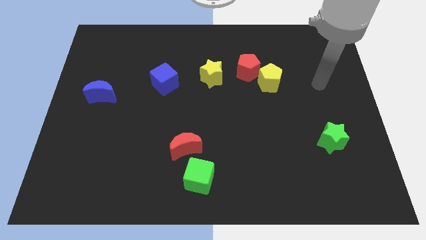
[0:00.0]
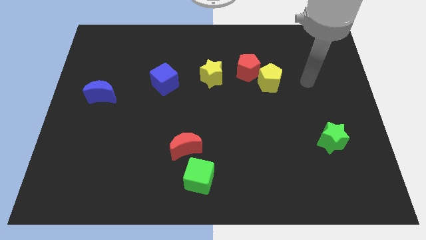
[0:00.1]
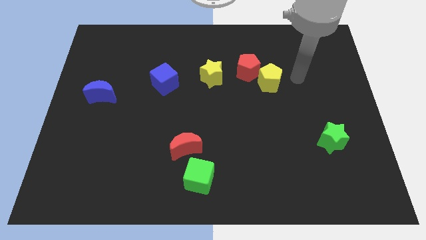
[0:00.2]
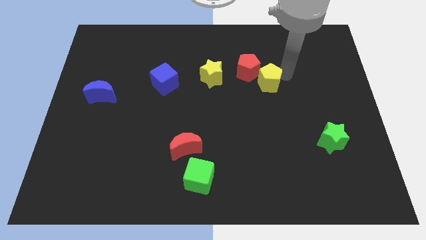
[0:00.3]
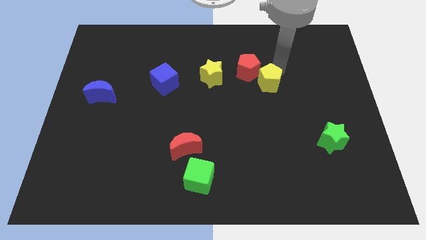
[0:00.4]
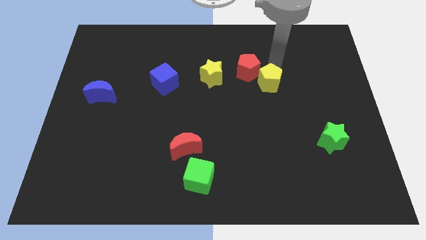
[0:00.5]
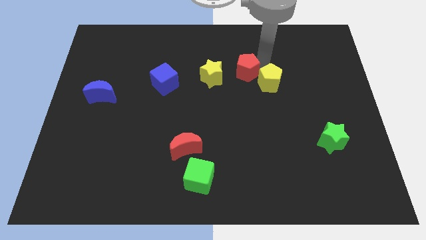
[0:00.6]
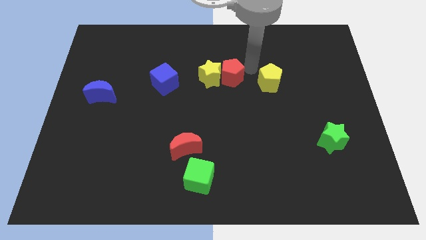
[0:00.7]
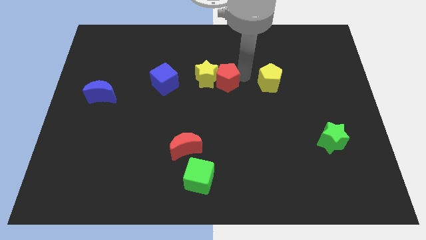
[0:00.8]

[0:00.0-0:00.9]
pull the yellow pentagon apart from the red pentagon

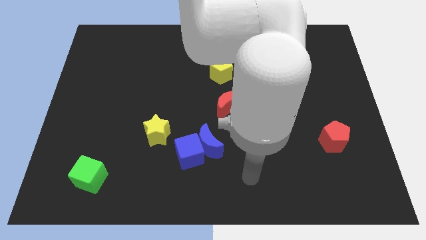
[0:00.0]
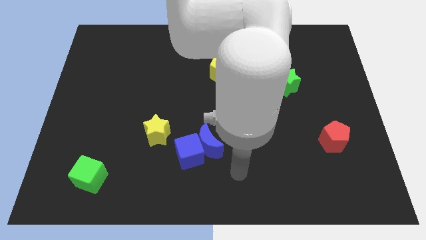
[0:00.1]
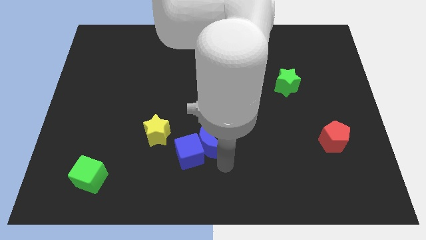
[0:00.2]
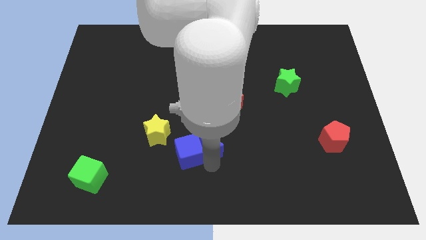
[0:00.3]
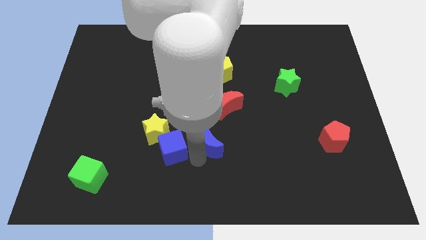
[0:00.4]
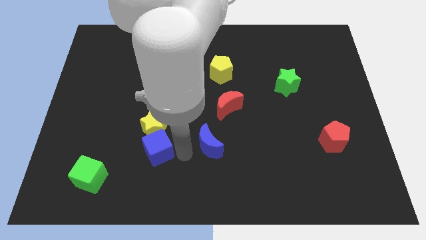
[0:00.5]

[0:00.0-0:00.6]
move the blue moon away from the blue cube

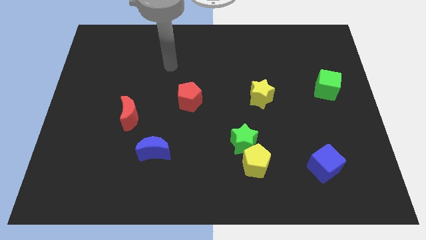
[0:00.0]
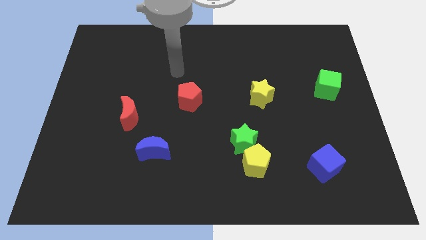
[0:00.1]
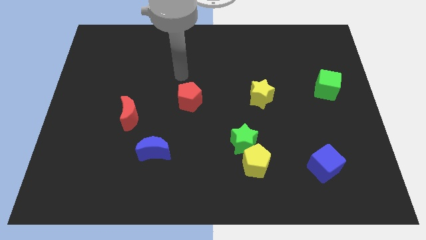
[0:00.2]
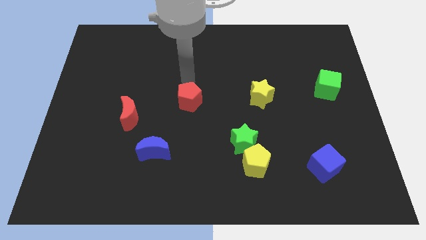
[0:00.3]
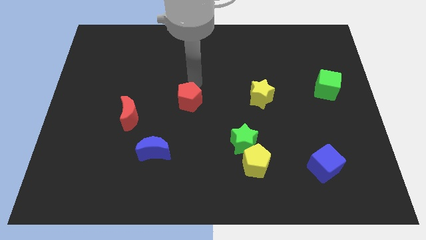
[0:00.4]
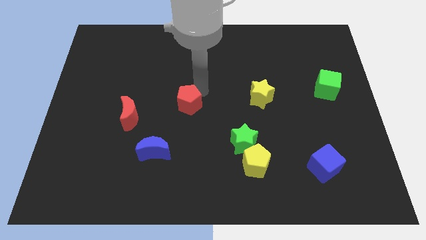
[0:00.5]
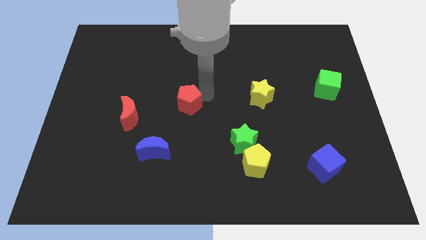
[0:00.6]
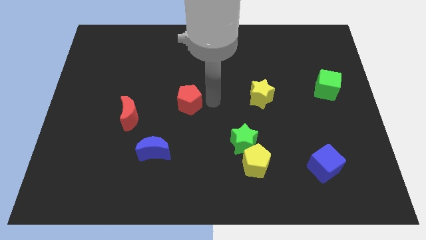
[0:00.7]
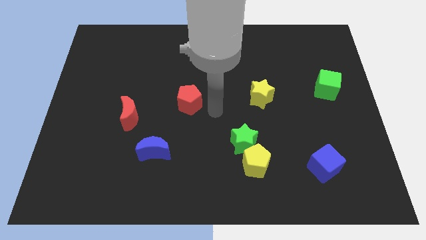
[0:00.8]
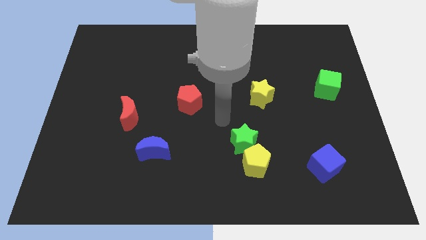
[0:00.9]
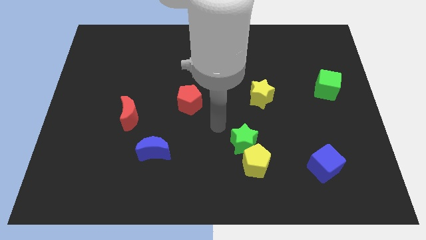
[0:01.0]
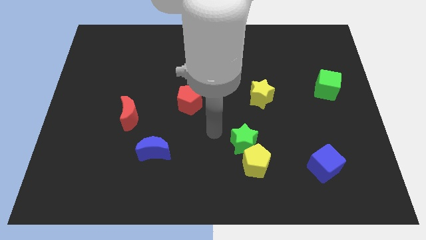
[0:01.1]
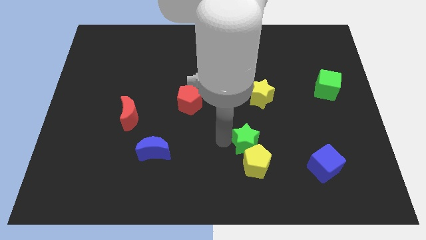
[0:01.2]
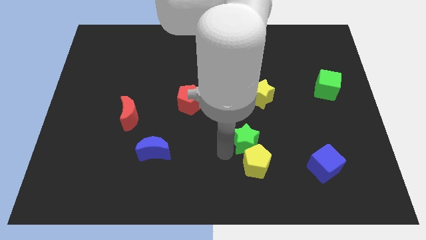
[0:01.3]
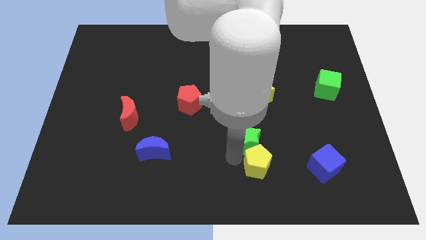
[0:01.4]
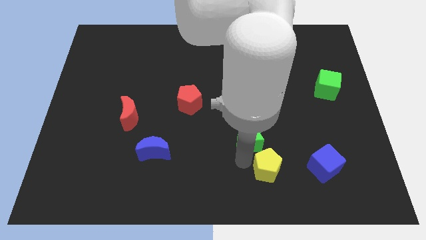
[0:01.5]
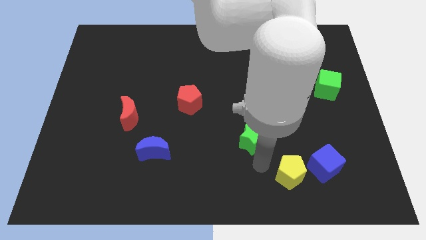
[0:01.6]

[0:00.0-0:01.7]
separate the green star from the yellow pentagon

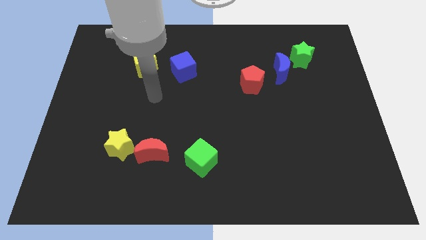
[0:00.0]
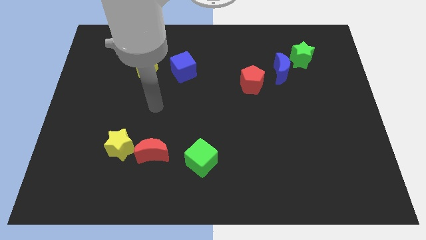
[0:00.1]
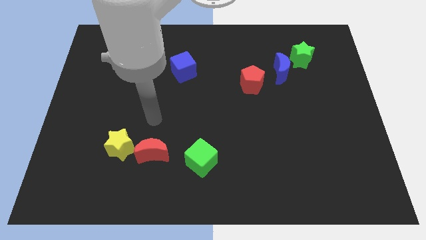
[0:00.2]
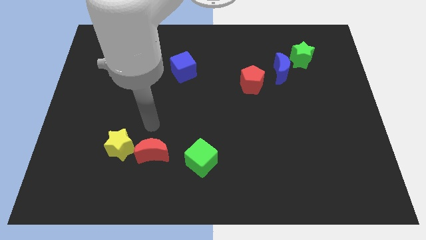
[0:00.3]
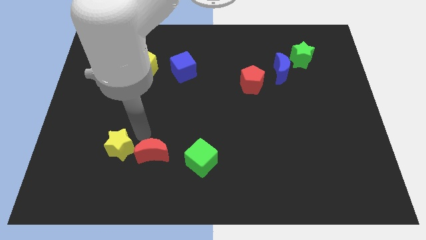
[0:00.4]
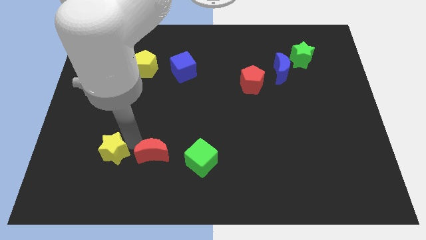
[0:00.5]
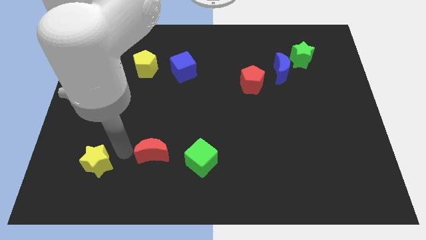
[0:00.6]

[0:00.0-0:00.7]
move the red moon away from the yellow star

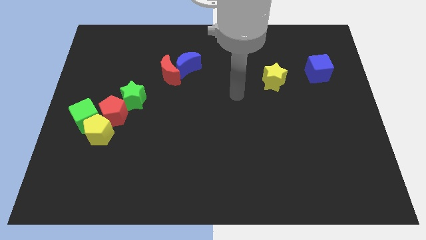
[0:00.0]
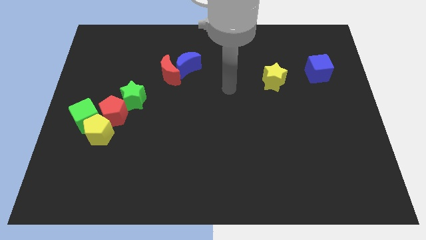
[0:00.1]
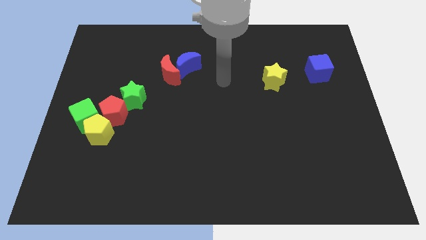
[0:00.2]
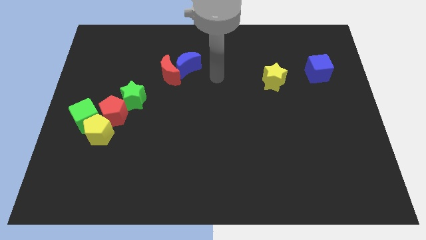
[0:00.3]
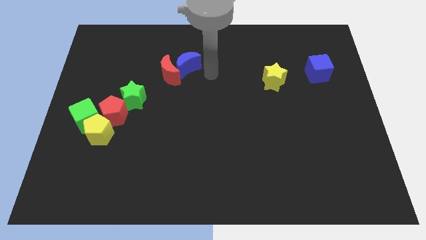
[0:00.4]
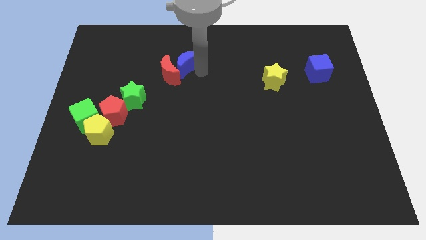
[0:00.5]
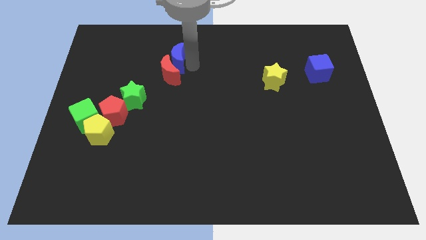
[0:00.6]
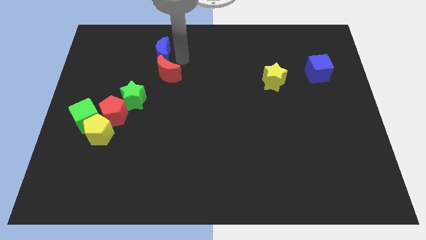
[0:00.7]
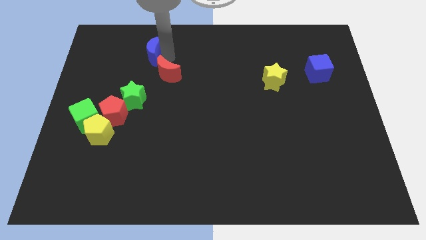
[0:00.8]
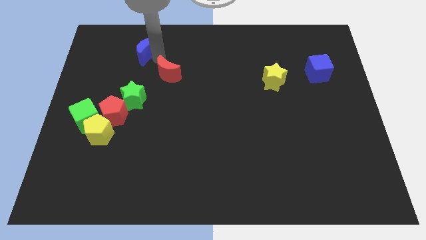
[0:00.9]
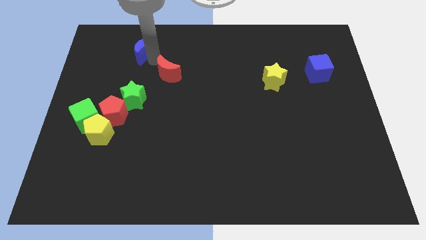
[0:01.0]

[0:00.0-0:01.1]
move the red moon away from the blue moon

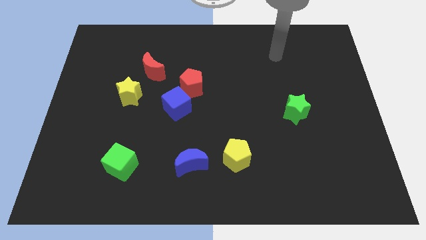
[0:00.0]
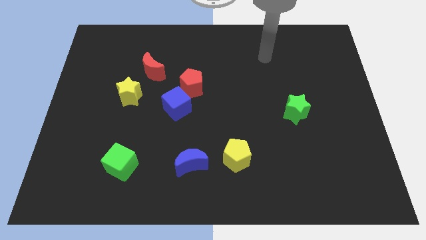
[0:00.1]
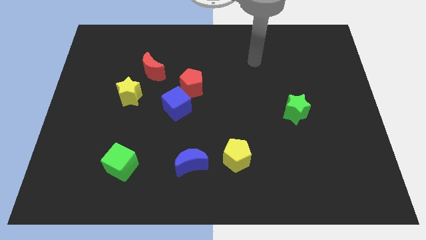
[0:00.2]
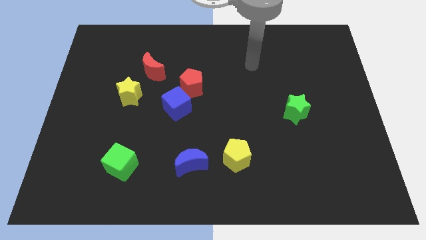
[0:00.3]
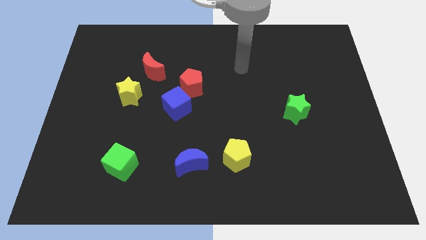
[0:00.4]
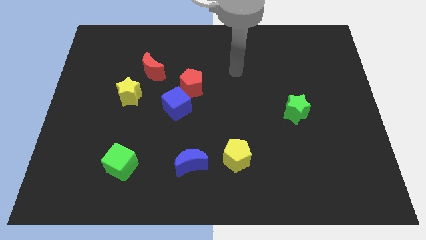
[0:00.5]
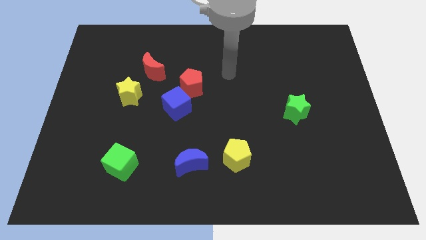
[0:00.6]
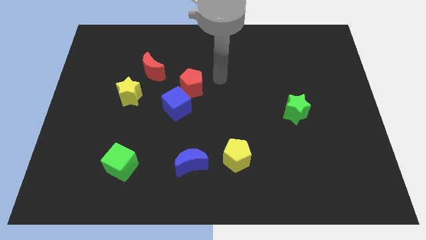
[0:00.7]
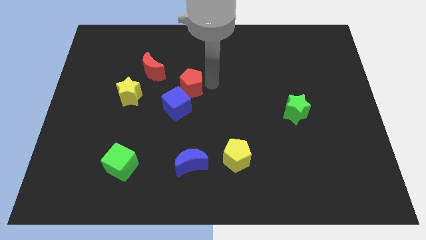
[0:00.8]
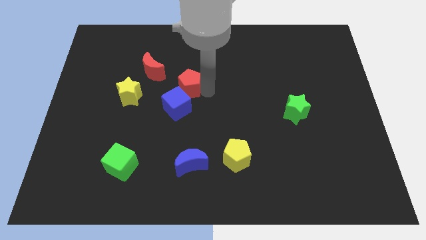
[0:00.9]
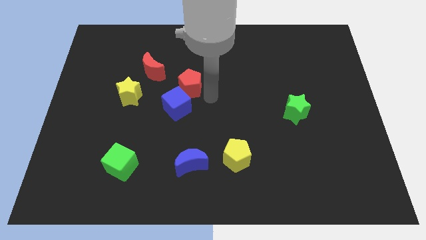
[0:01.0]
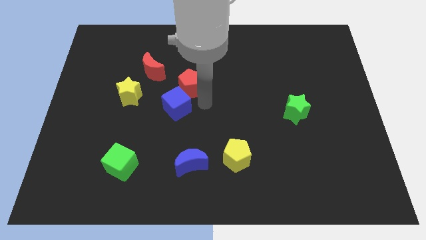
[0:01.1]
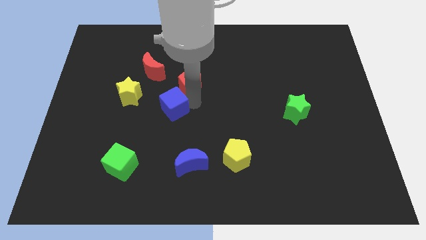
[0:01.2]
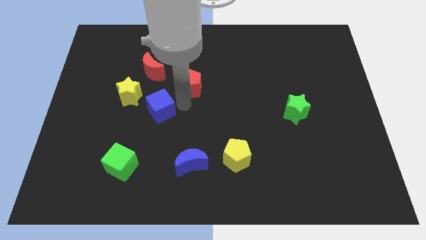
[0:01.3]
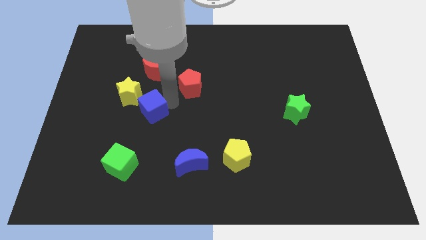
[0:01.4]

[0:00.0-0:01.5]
pull the red pentagon apart from the blue cube

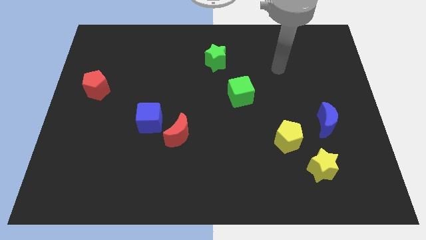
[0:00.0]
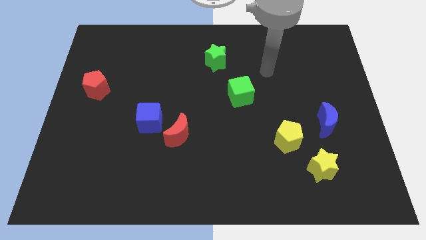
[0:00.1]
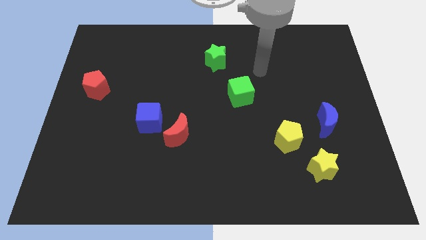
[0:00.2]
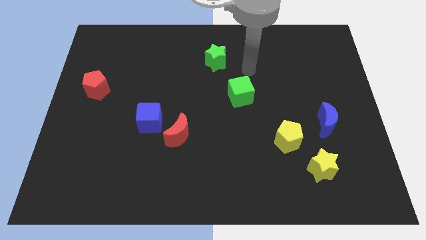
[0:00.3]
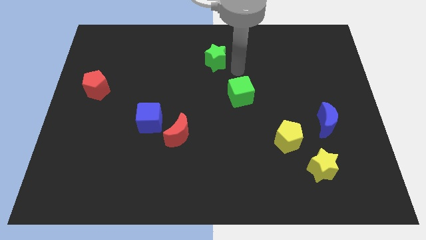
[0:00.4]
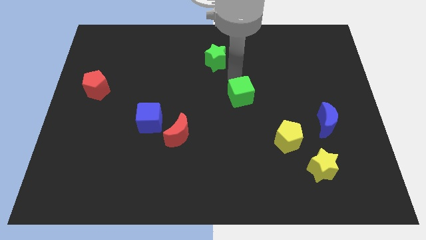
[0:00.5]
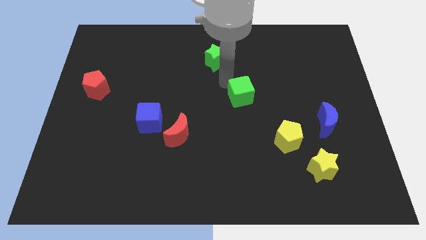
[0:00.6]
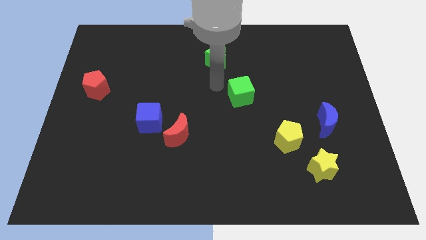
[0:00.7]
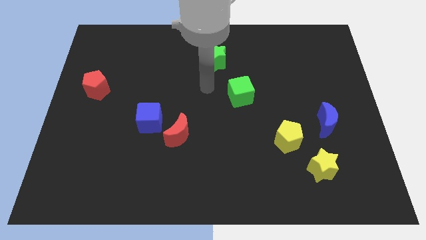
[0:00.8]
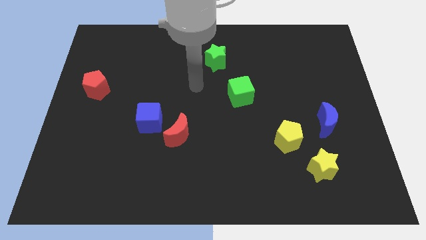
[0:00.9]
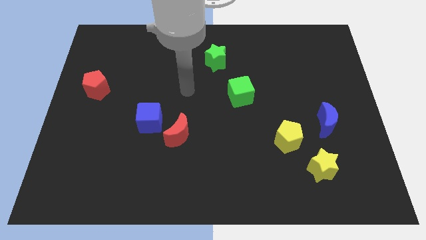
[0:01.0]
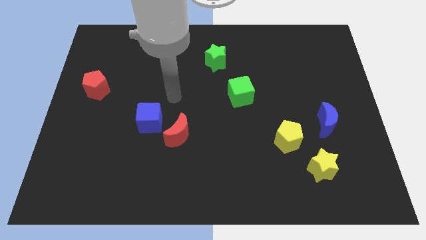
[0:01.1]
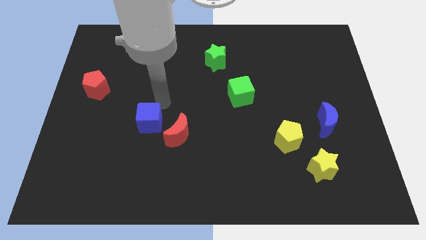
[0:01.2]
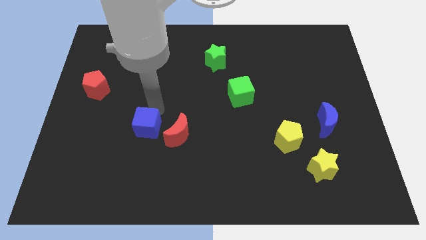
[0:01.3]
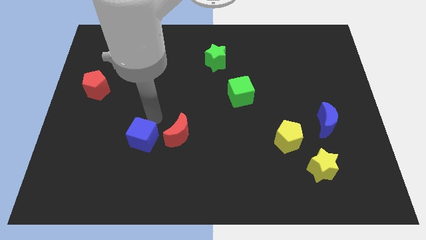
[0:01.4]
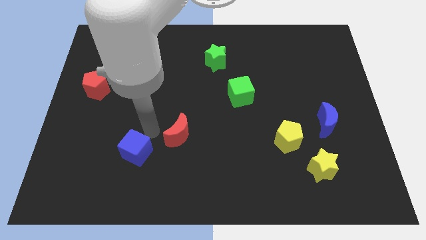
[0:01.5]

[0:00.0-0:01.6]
move the red moon away from the blue cube

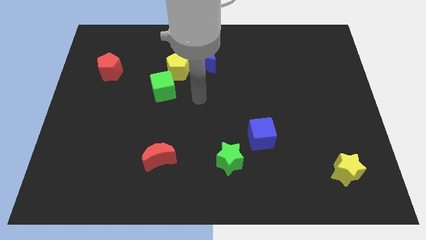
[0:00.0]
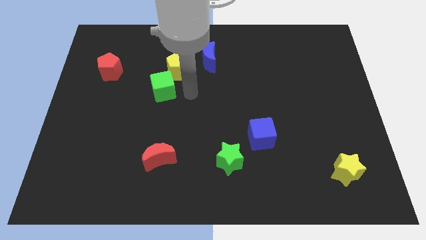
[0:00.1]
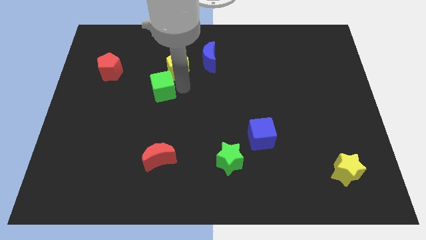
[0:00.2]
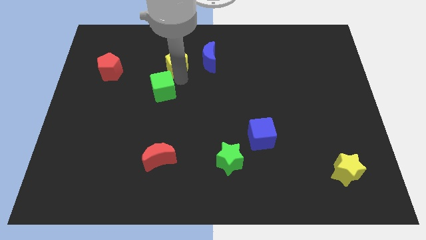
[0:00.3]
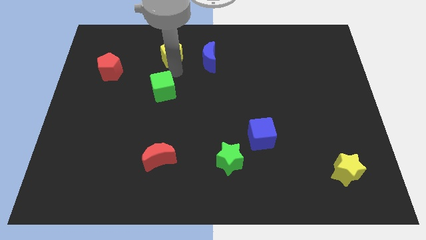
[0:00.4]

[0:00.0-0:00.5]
pull the green cube apart from the yellow pentagon

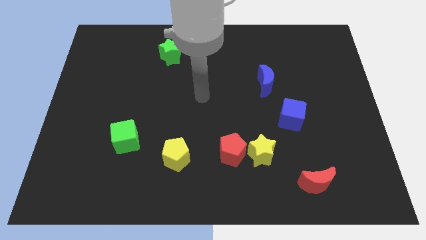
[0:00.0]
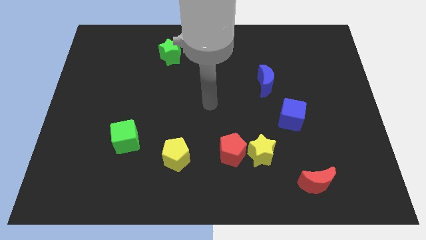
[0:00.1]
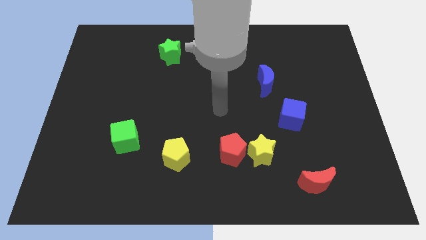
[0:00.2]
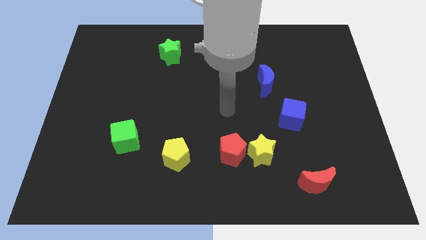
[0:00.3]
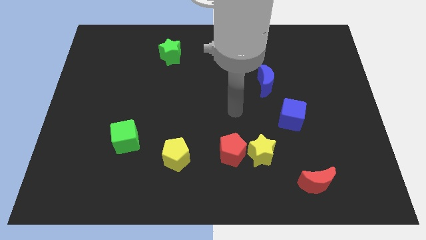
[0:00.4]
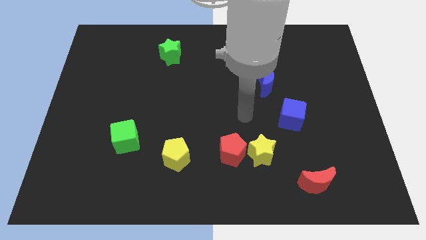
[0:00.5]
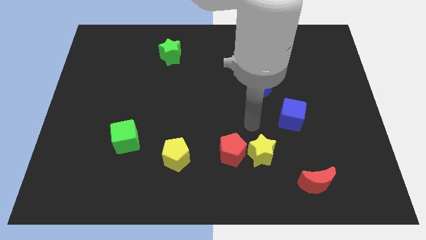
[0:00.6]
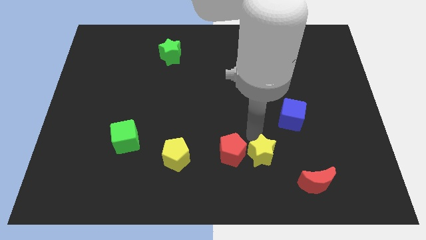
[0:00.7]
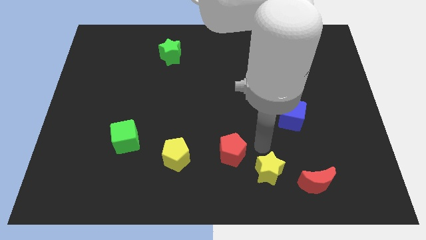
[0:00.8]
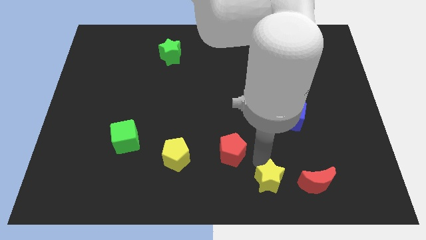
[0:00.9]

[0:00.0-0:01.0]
move the red pentagon away from the yellow star
